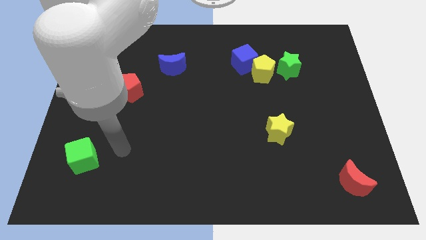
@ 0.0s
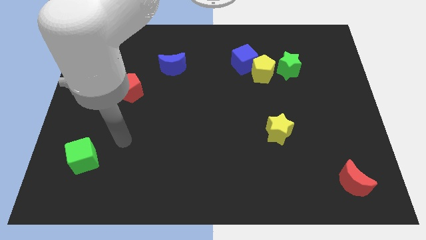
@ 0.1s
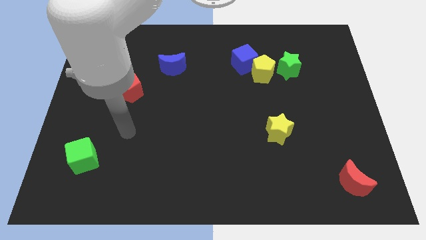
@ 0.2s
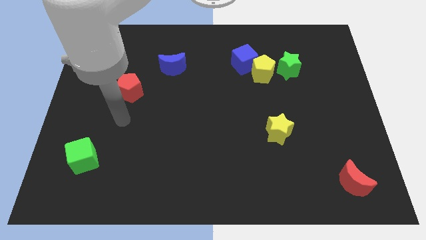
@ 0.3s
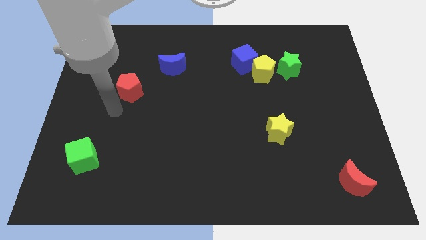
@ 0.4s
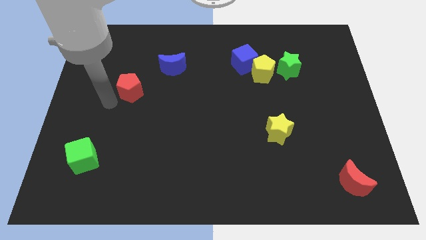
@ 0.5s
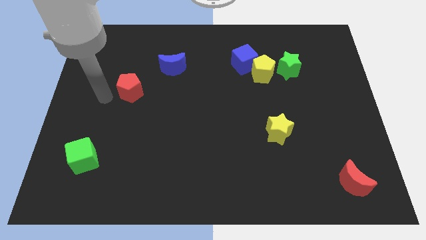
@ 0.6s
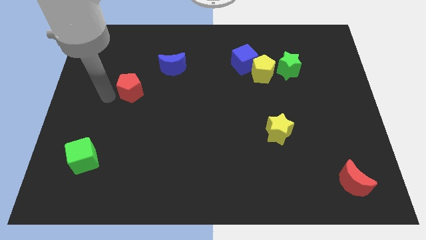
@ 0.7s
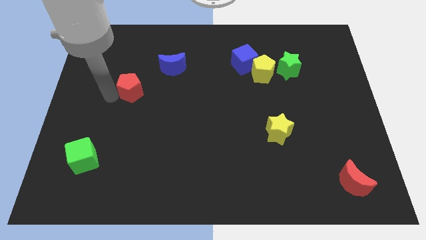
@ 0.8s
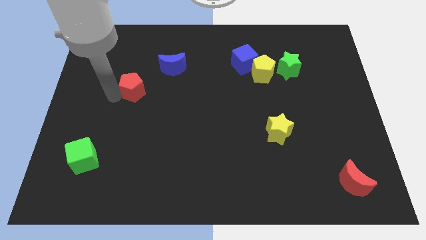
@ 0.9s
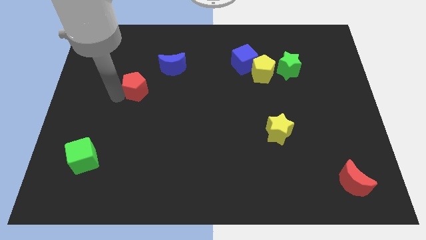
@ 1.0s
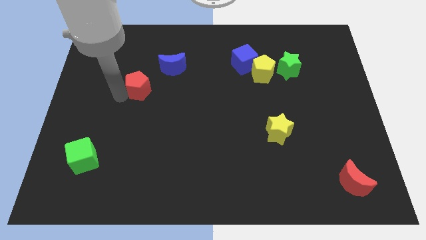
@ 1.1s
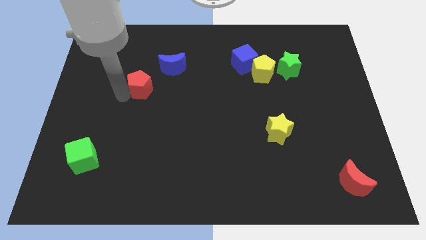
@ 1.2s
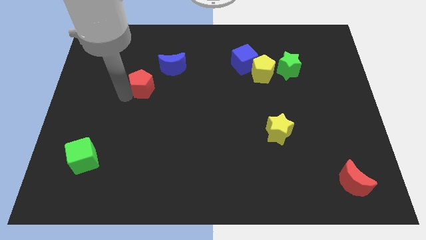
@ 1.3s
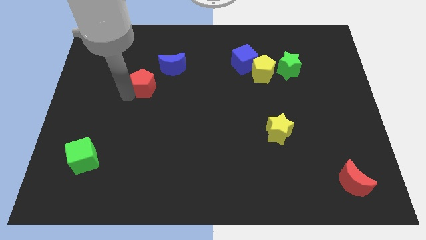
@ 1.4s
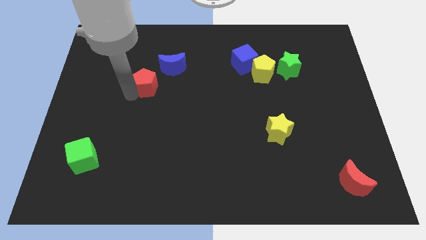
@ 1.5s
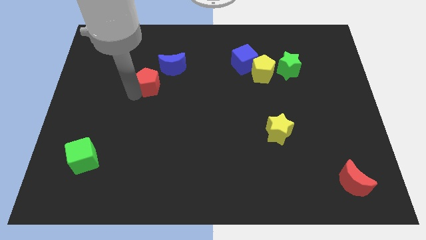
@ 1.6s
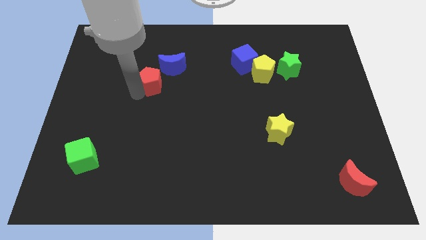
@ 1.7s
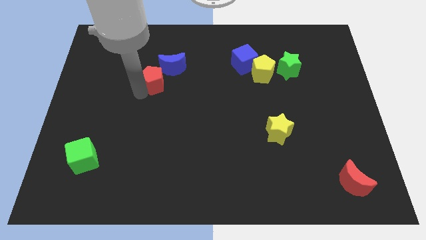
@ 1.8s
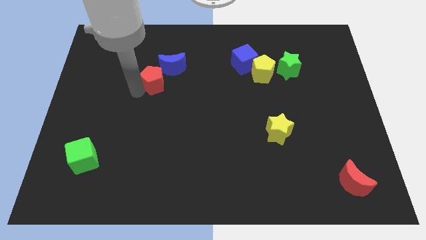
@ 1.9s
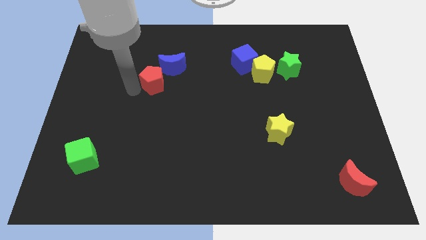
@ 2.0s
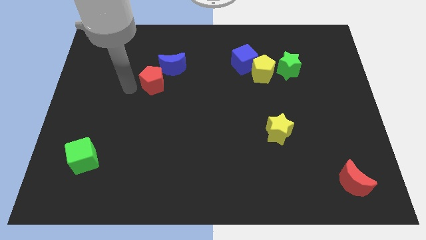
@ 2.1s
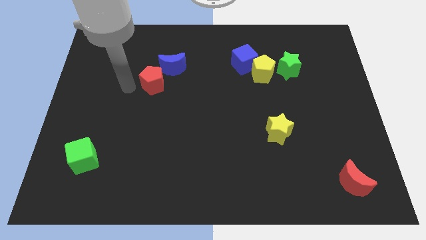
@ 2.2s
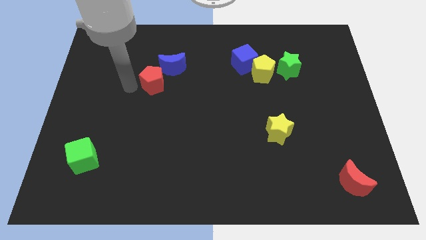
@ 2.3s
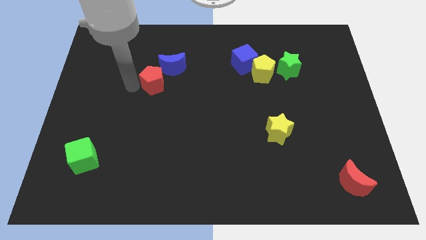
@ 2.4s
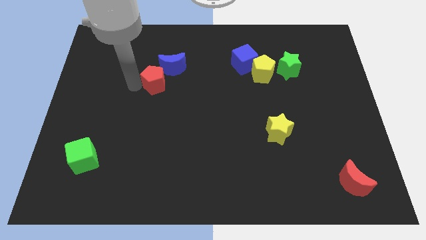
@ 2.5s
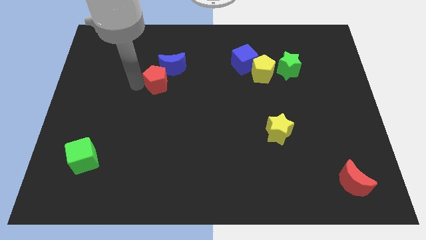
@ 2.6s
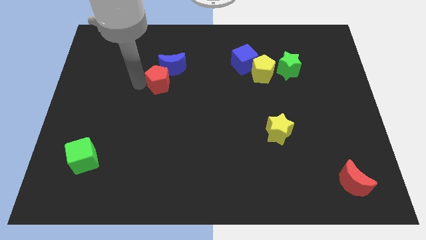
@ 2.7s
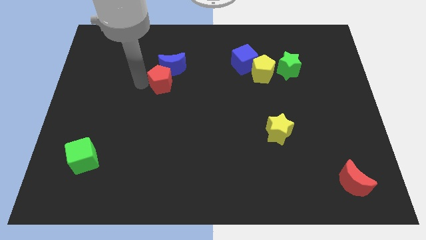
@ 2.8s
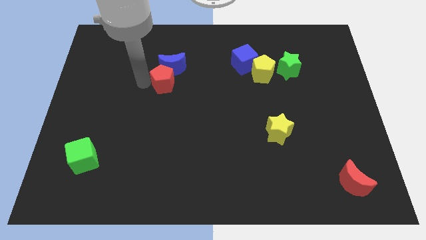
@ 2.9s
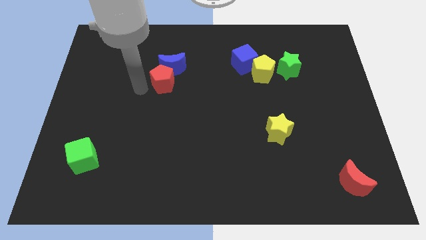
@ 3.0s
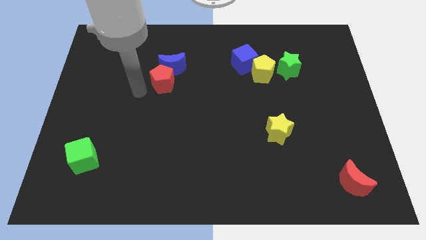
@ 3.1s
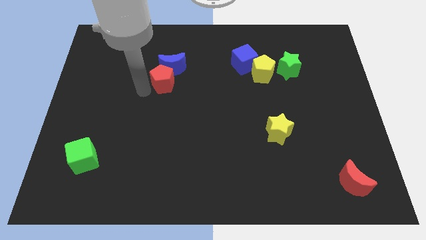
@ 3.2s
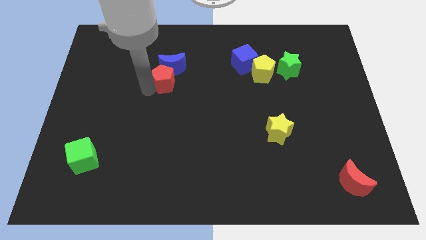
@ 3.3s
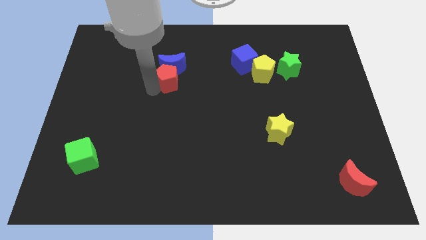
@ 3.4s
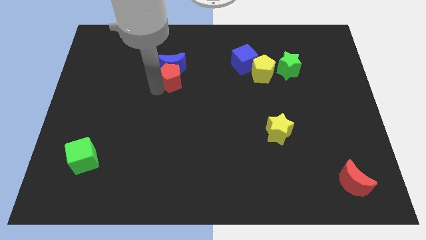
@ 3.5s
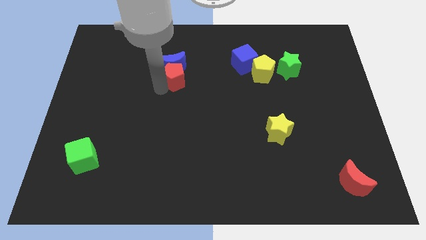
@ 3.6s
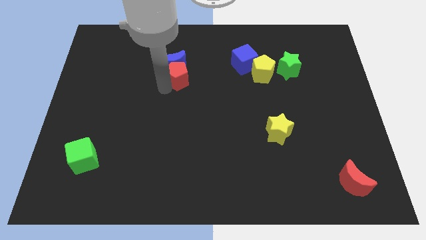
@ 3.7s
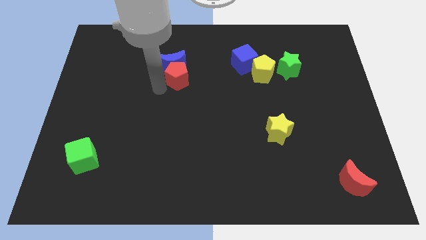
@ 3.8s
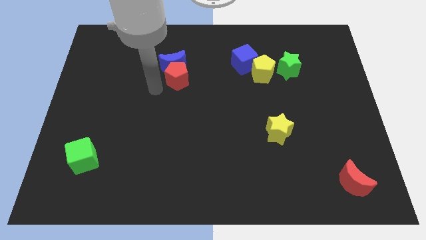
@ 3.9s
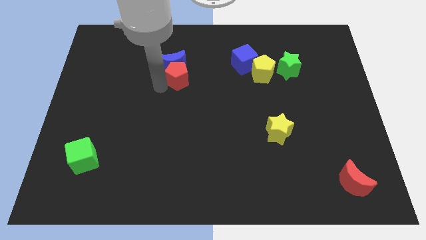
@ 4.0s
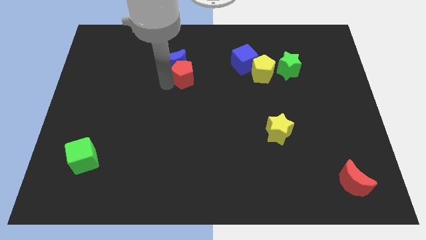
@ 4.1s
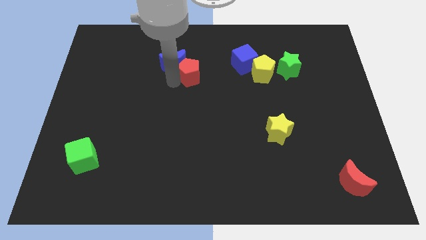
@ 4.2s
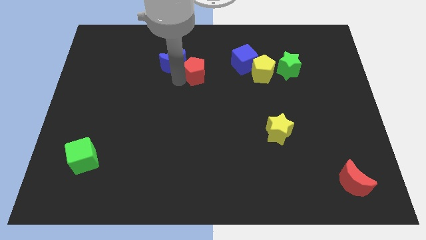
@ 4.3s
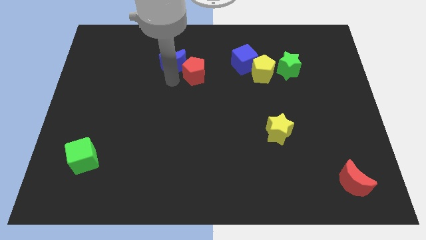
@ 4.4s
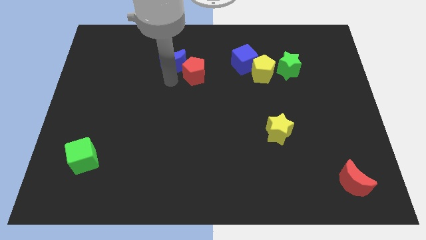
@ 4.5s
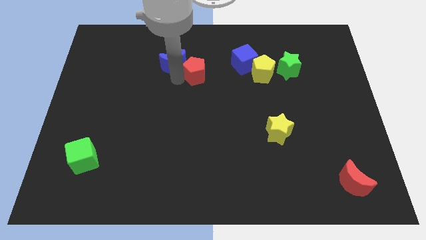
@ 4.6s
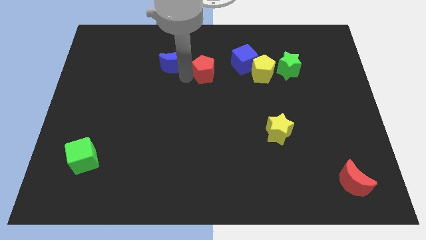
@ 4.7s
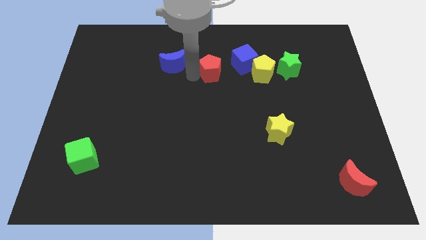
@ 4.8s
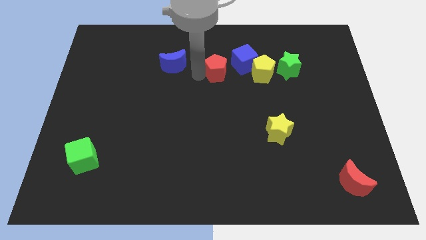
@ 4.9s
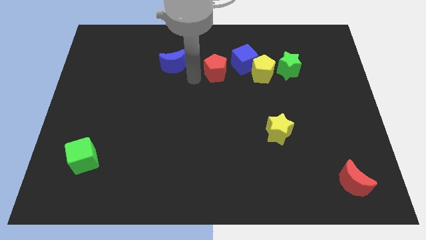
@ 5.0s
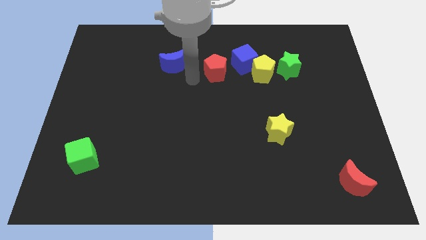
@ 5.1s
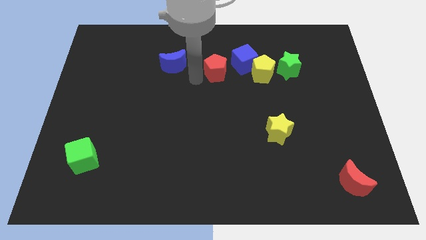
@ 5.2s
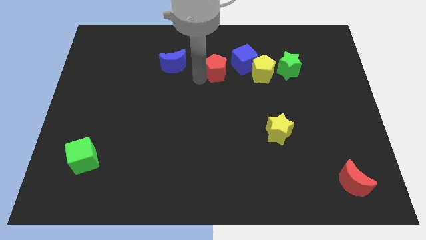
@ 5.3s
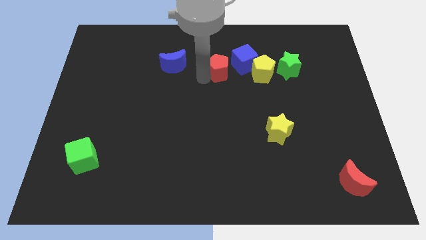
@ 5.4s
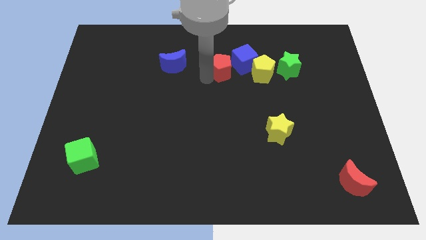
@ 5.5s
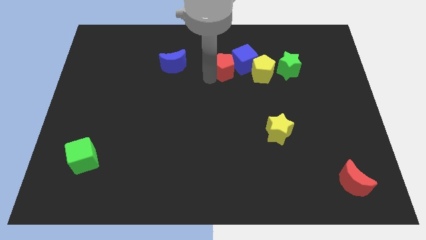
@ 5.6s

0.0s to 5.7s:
push the red pentagon close to the blue cube

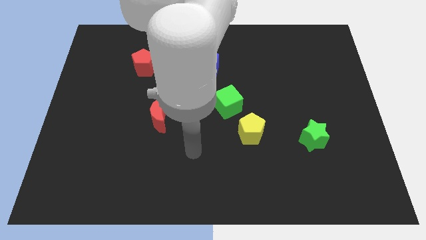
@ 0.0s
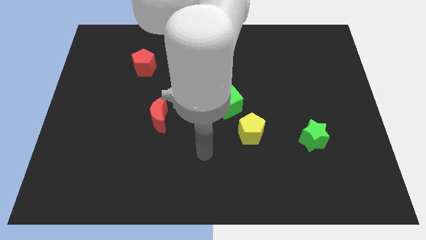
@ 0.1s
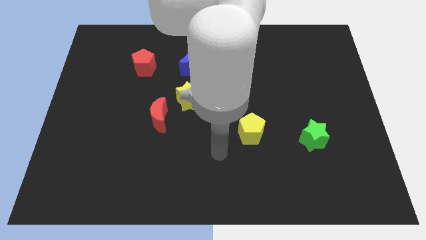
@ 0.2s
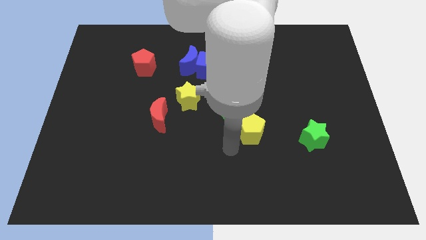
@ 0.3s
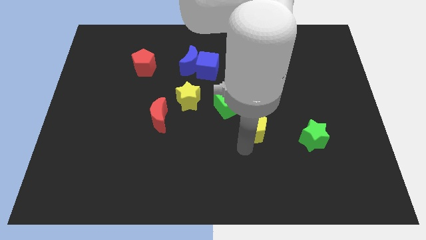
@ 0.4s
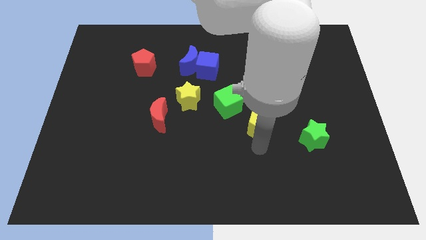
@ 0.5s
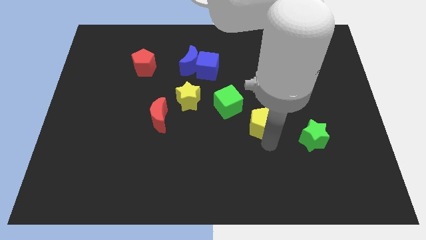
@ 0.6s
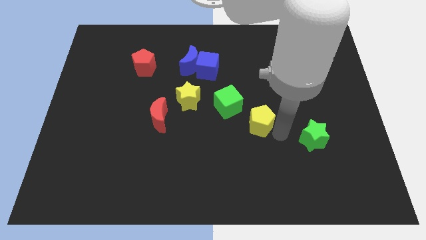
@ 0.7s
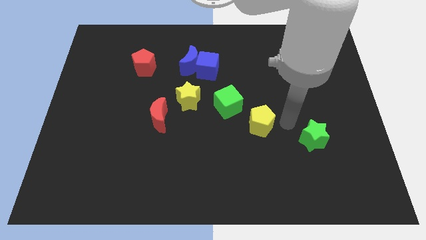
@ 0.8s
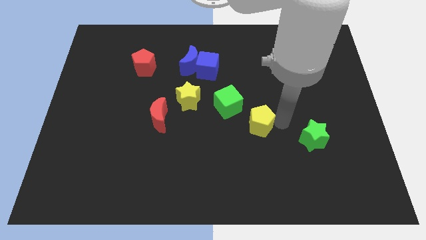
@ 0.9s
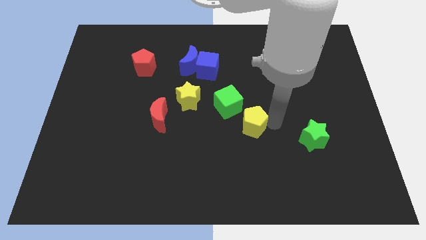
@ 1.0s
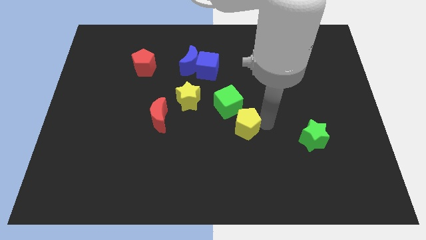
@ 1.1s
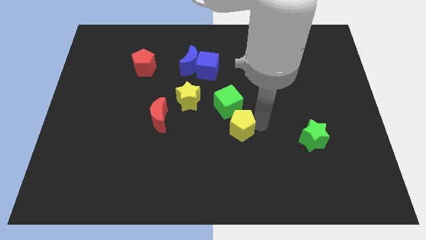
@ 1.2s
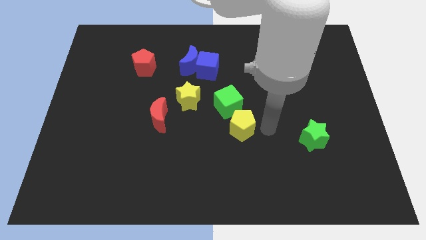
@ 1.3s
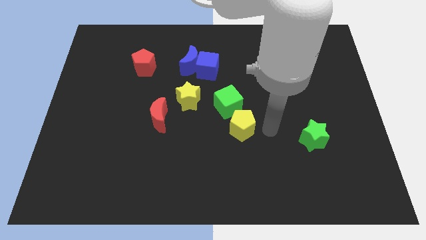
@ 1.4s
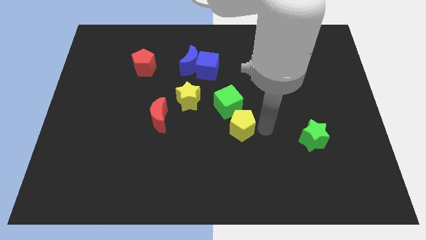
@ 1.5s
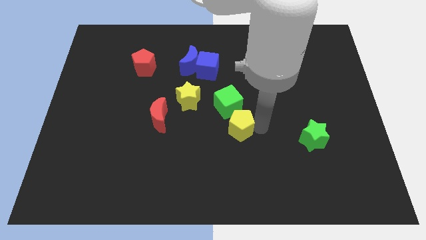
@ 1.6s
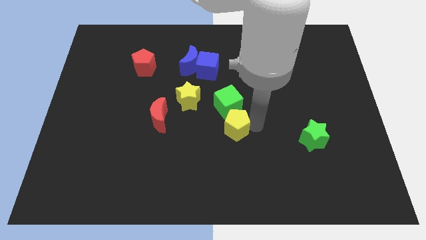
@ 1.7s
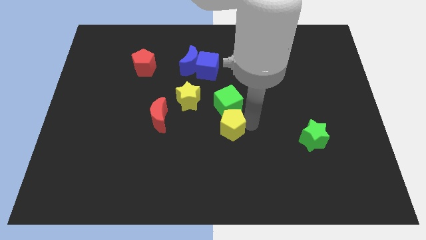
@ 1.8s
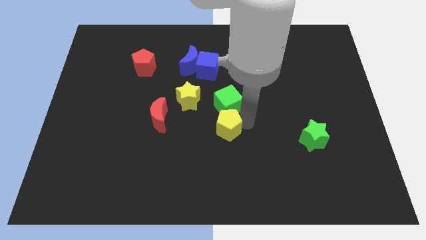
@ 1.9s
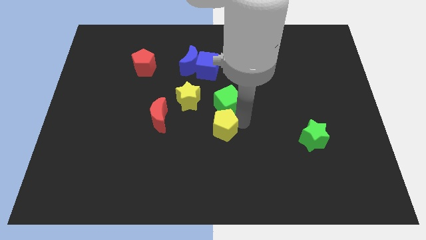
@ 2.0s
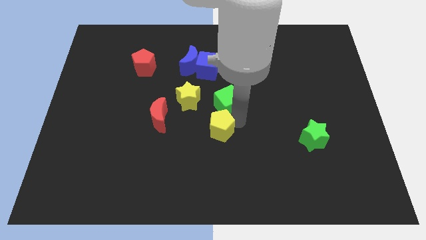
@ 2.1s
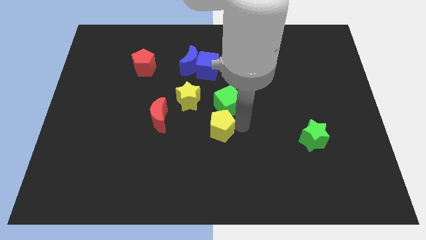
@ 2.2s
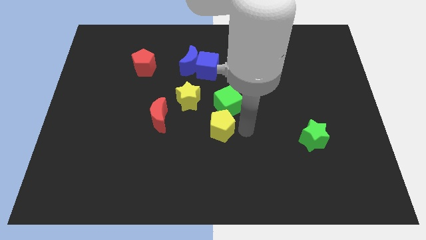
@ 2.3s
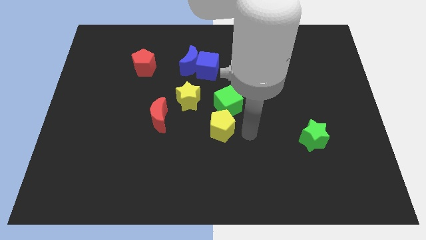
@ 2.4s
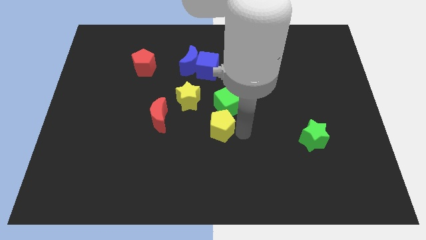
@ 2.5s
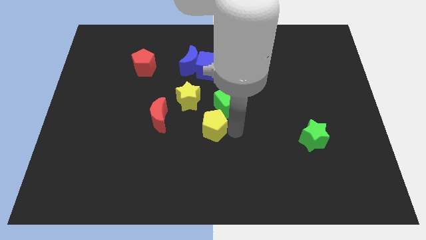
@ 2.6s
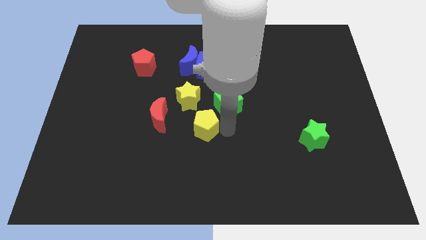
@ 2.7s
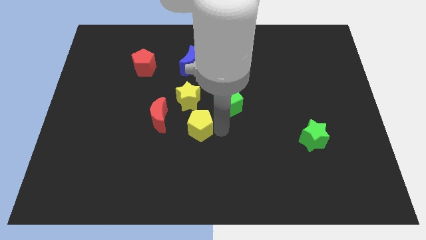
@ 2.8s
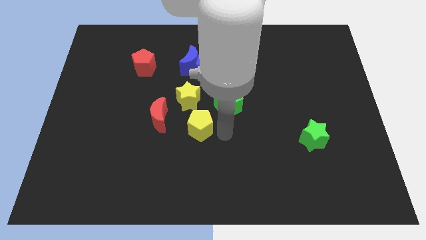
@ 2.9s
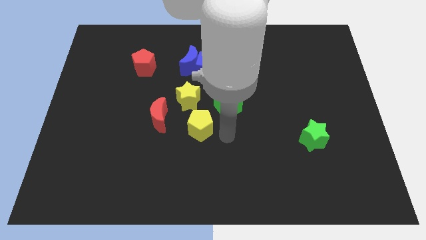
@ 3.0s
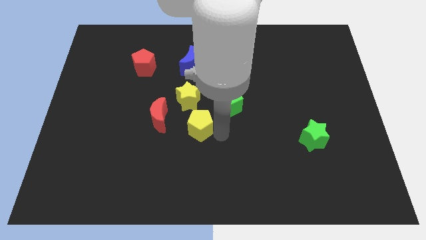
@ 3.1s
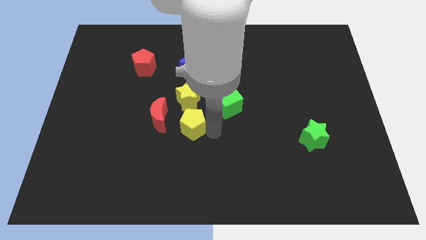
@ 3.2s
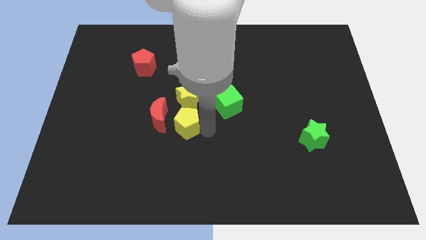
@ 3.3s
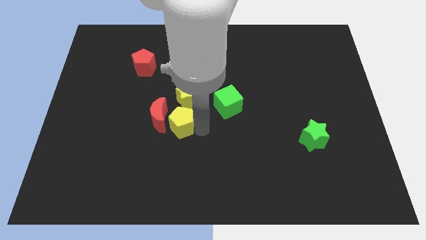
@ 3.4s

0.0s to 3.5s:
put the yellow pentagon next to the red moon
